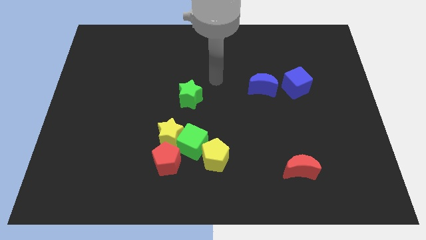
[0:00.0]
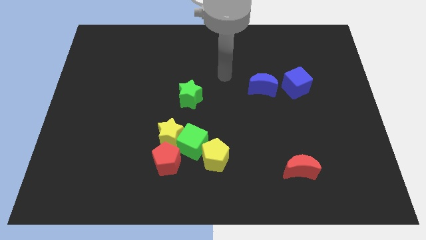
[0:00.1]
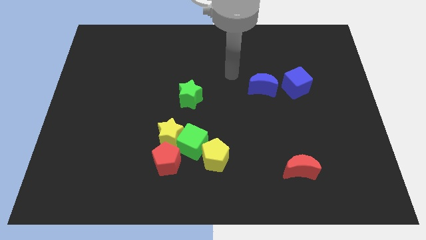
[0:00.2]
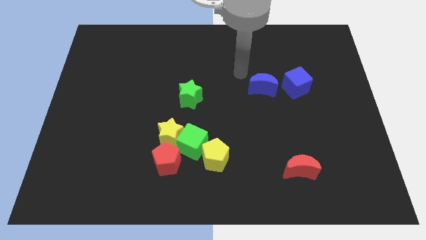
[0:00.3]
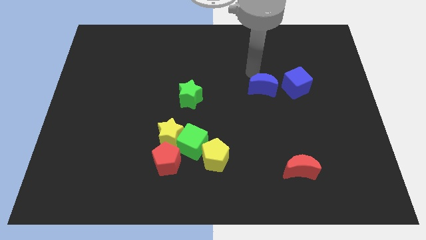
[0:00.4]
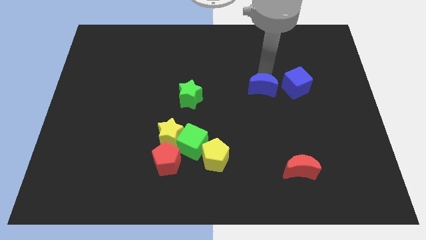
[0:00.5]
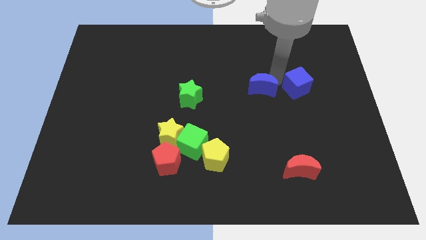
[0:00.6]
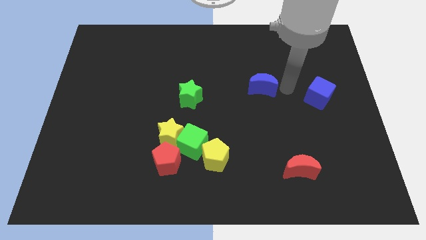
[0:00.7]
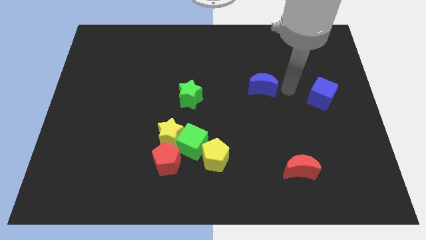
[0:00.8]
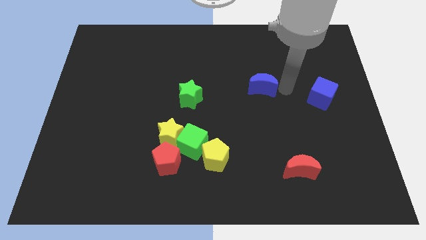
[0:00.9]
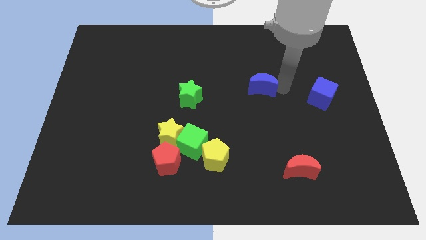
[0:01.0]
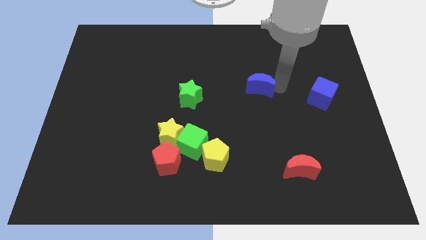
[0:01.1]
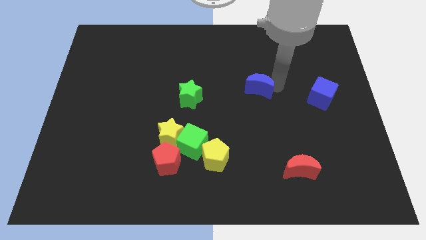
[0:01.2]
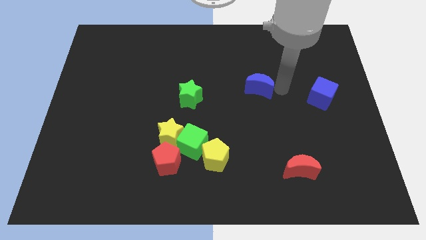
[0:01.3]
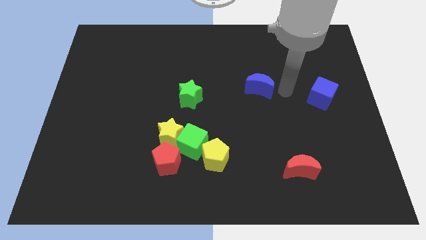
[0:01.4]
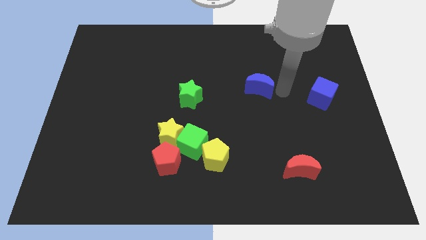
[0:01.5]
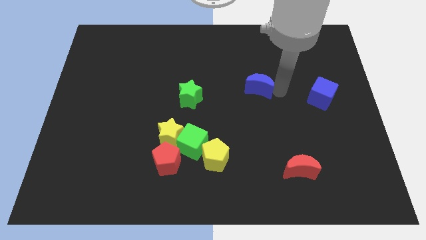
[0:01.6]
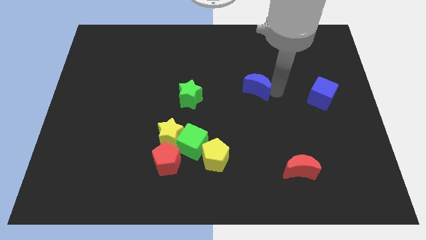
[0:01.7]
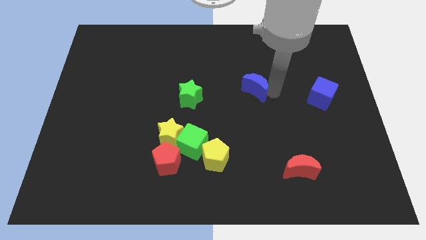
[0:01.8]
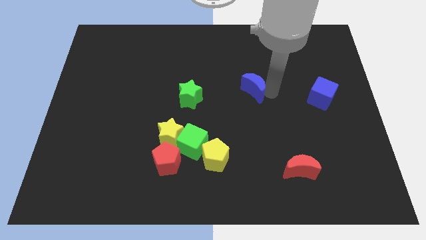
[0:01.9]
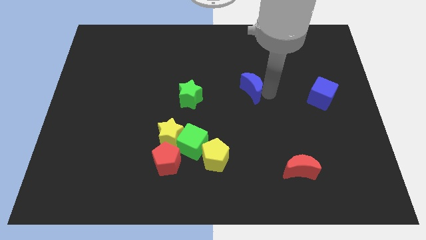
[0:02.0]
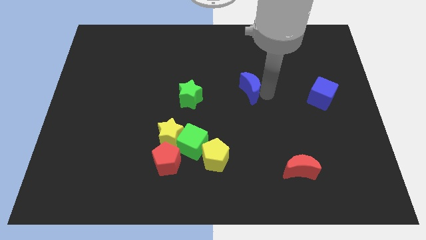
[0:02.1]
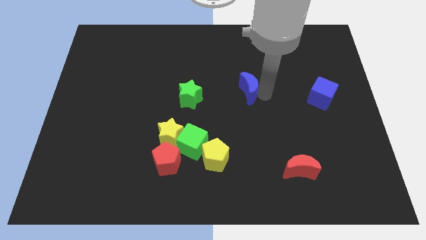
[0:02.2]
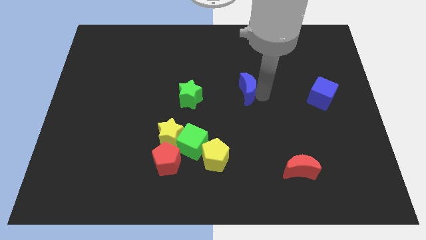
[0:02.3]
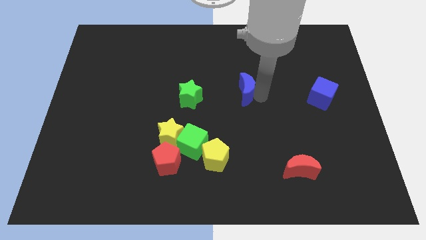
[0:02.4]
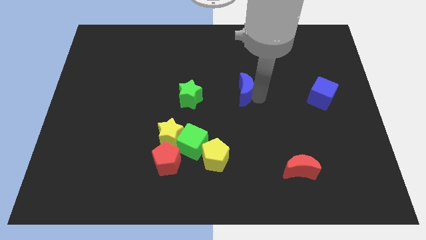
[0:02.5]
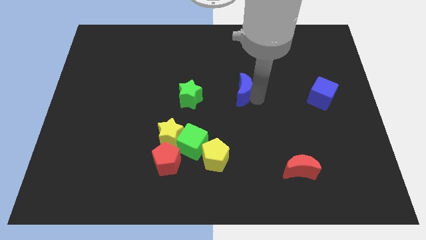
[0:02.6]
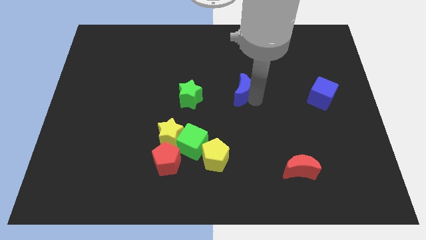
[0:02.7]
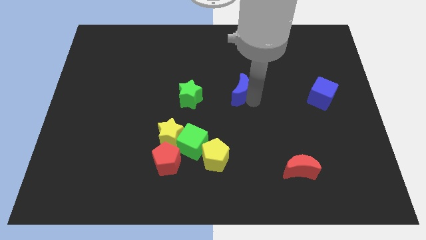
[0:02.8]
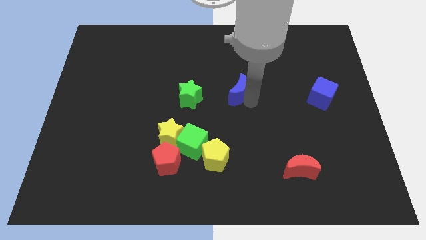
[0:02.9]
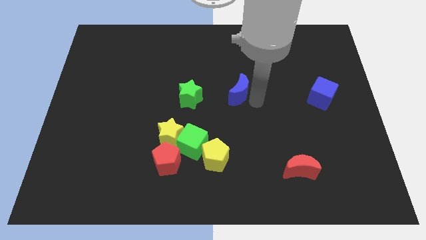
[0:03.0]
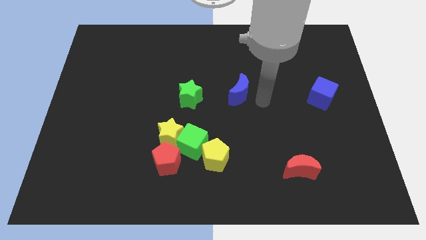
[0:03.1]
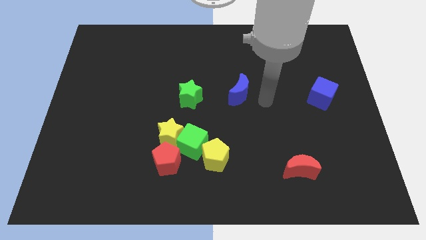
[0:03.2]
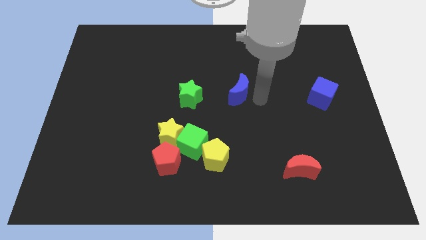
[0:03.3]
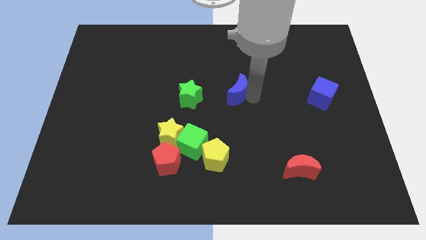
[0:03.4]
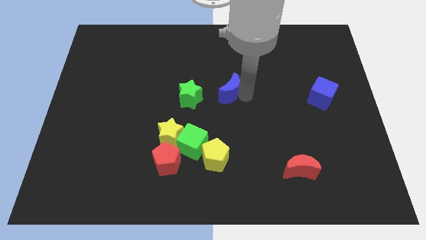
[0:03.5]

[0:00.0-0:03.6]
move the blue moon a little bit to the left

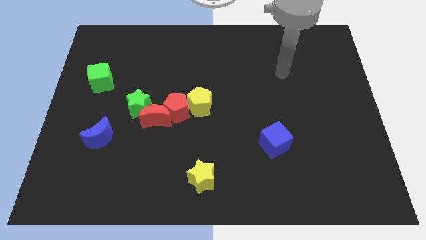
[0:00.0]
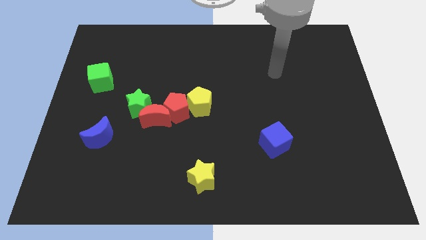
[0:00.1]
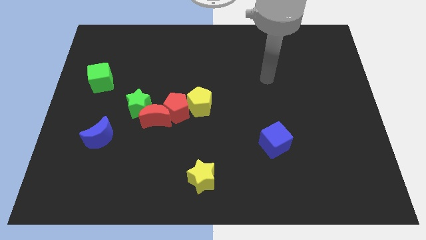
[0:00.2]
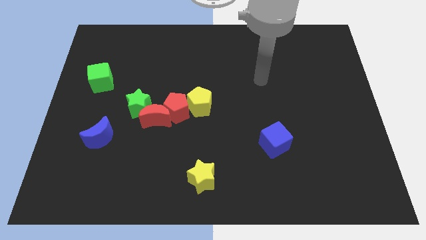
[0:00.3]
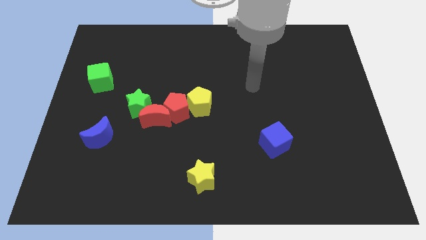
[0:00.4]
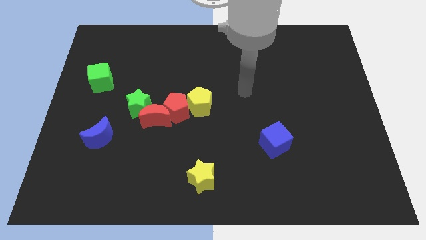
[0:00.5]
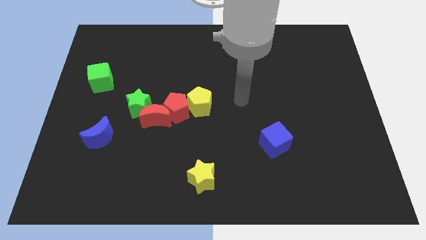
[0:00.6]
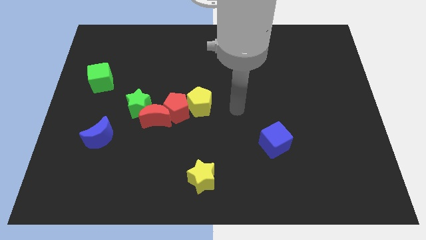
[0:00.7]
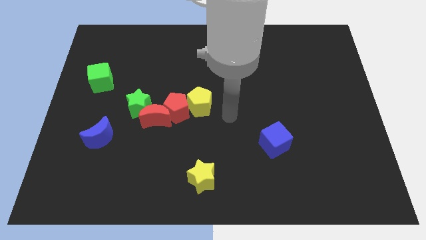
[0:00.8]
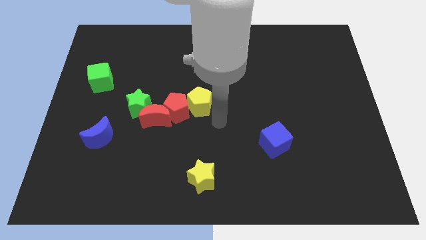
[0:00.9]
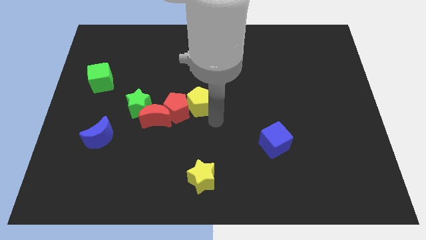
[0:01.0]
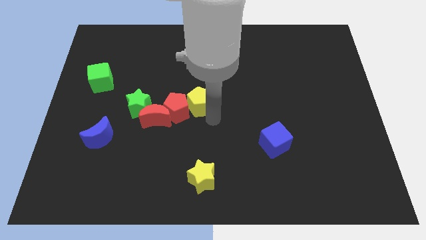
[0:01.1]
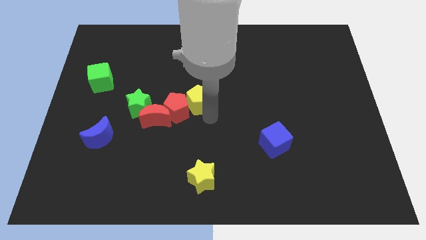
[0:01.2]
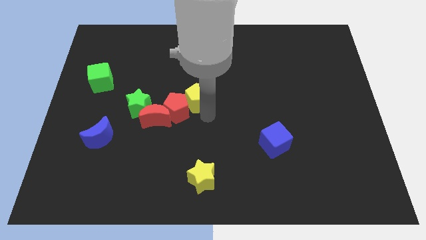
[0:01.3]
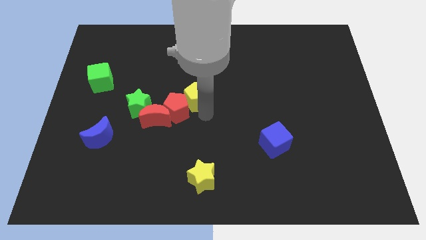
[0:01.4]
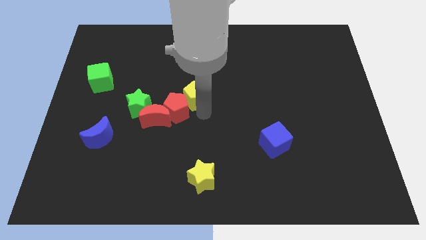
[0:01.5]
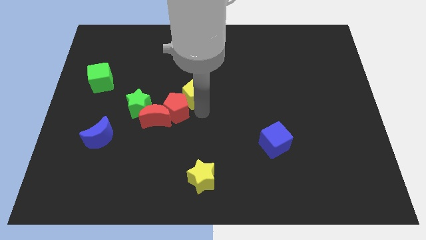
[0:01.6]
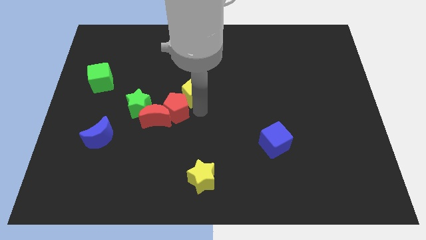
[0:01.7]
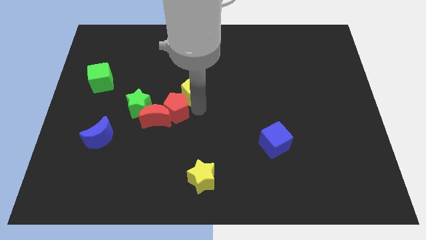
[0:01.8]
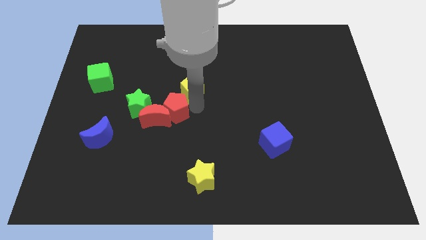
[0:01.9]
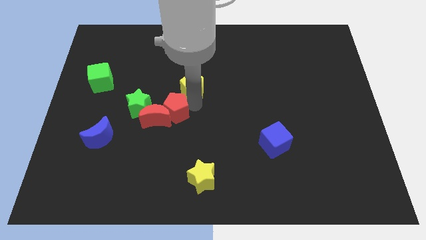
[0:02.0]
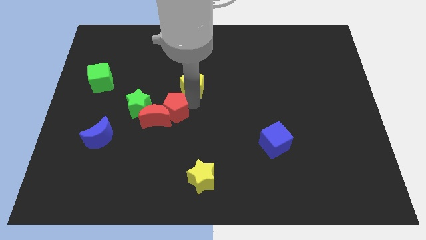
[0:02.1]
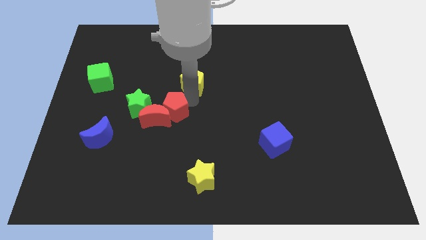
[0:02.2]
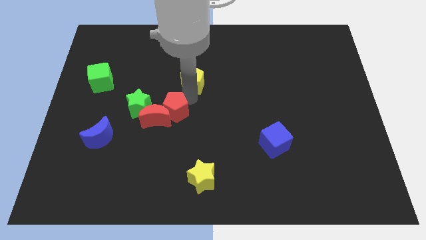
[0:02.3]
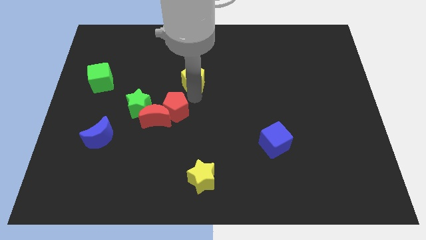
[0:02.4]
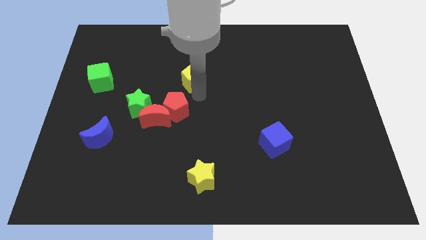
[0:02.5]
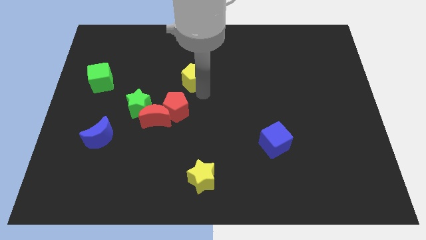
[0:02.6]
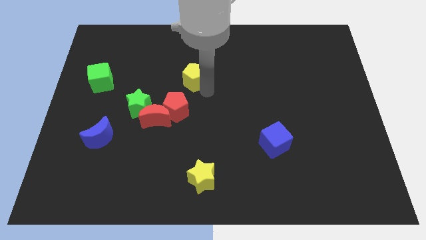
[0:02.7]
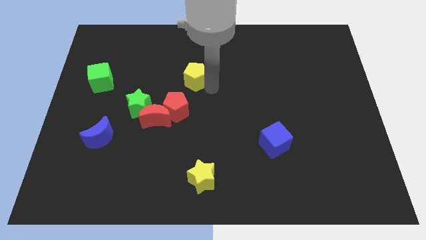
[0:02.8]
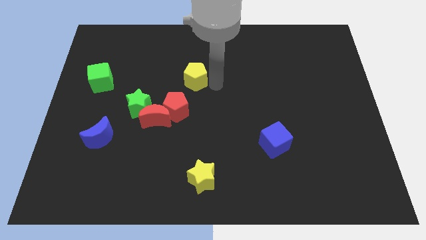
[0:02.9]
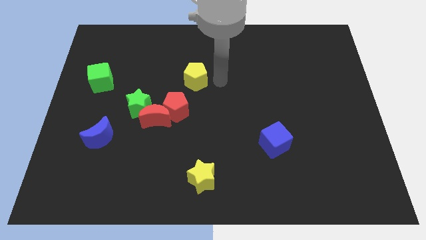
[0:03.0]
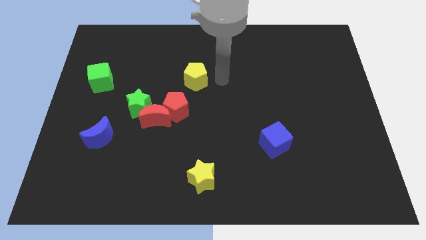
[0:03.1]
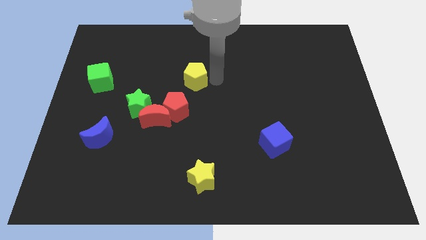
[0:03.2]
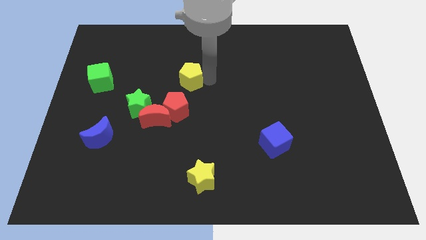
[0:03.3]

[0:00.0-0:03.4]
move the yellow pentagon a little bit up and left diagonally

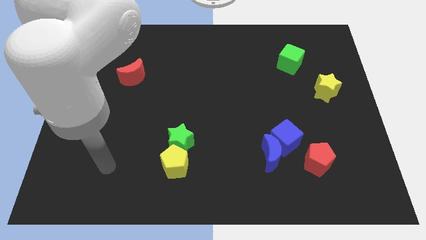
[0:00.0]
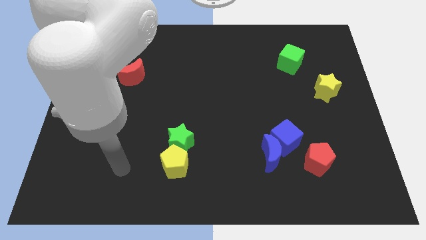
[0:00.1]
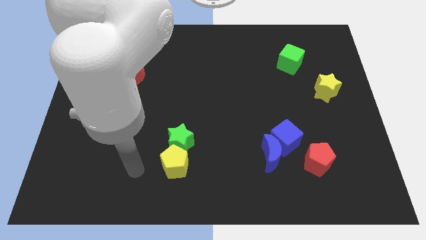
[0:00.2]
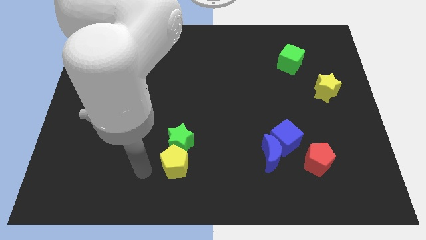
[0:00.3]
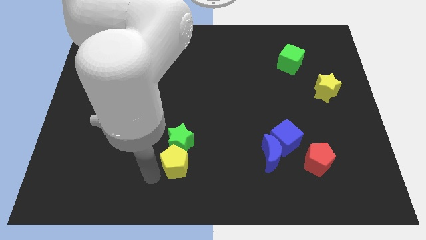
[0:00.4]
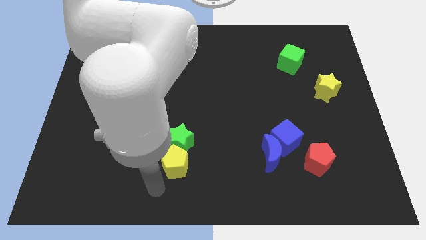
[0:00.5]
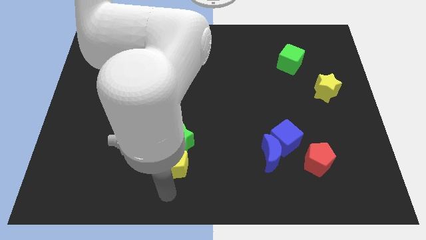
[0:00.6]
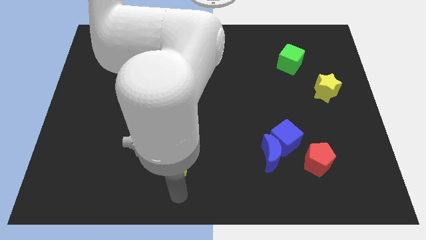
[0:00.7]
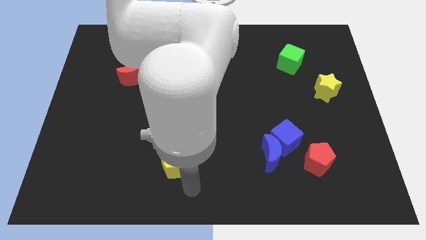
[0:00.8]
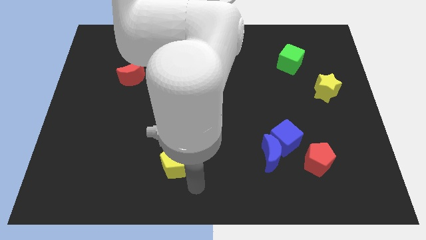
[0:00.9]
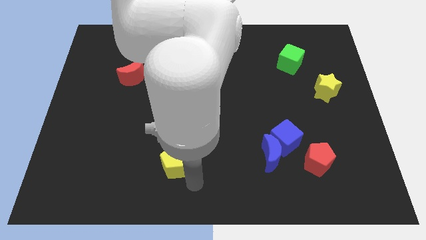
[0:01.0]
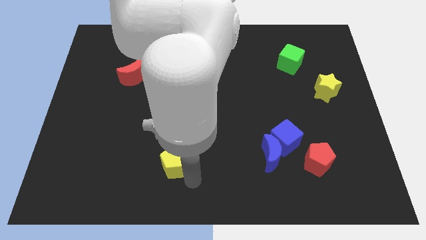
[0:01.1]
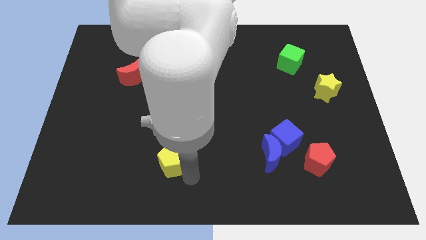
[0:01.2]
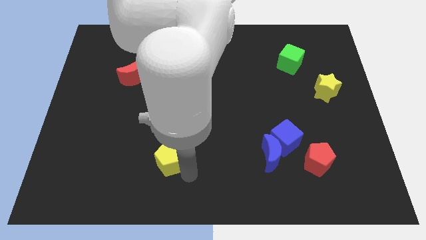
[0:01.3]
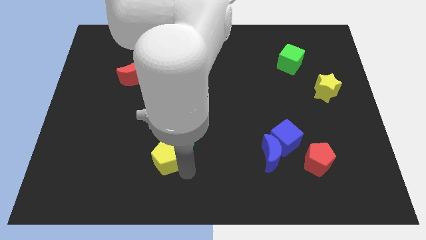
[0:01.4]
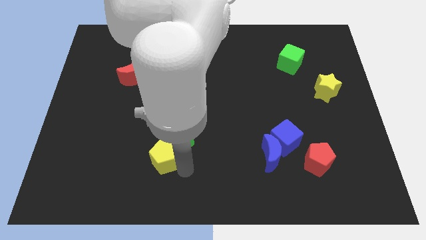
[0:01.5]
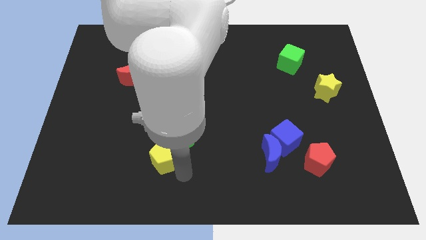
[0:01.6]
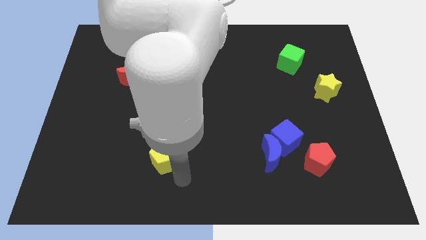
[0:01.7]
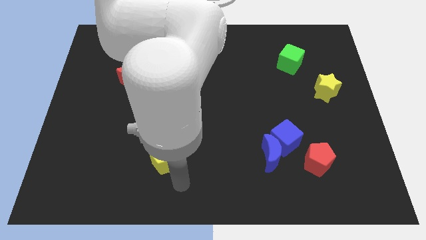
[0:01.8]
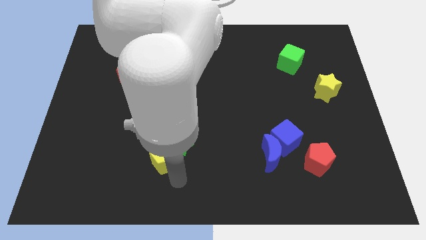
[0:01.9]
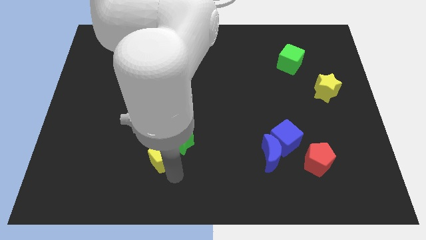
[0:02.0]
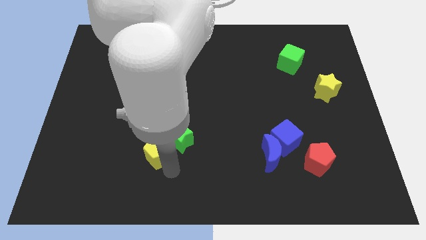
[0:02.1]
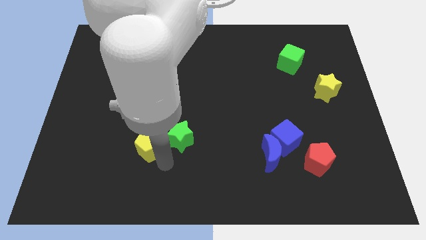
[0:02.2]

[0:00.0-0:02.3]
move the yellow pentagon somewhat upwards and left diagonally
